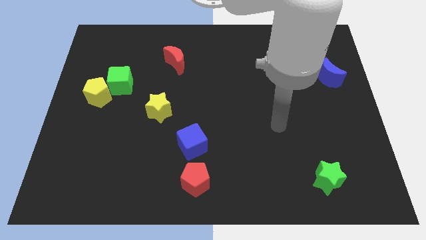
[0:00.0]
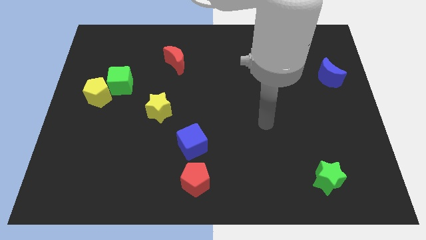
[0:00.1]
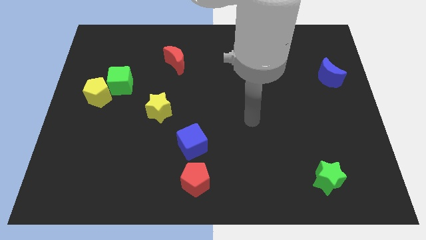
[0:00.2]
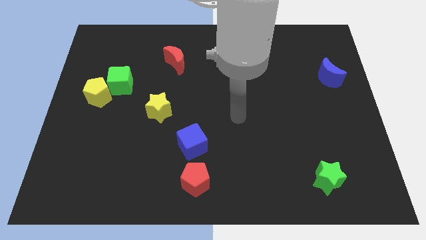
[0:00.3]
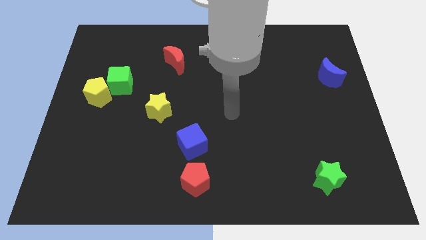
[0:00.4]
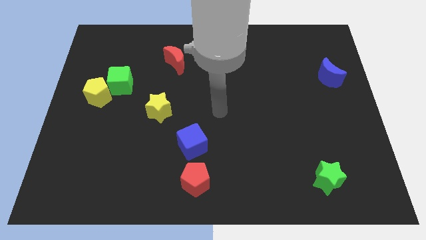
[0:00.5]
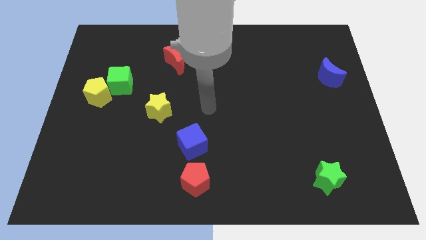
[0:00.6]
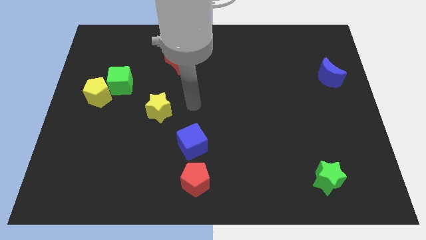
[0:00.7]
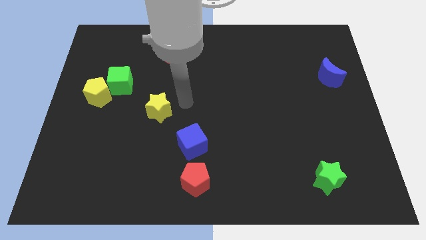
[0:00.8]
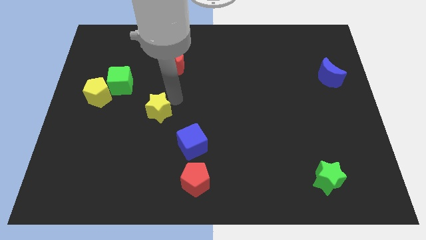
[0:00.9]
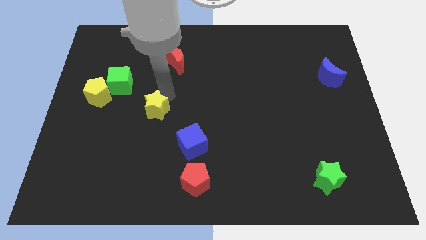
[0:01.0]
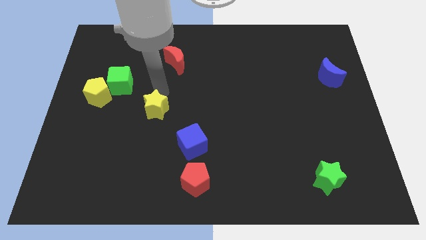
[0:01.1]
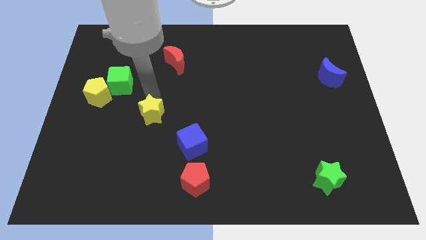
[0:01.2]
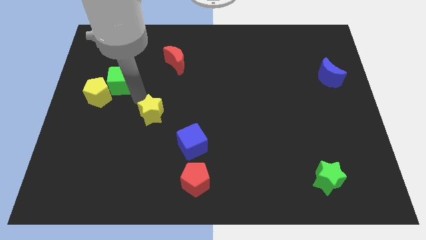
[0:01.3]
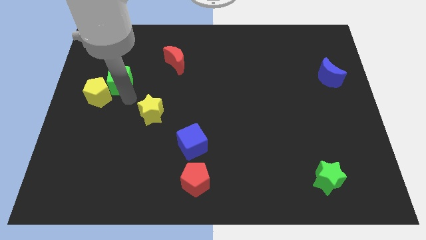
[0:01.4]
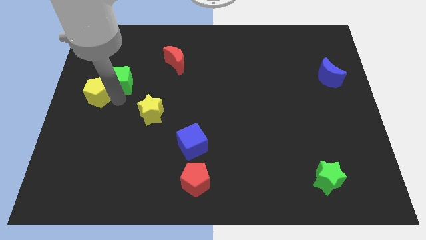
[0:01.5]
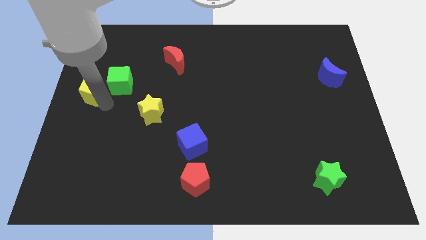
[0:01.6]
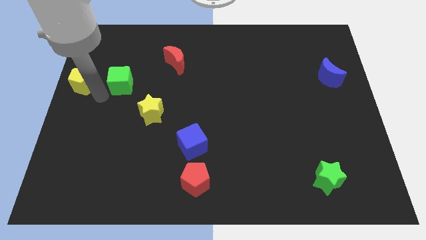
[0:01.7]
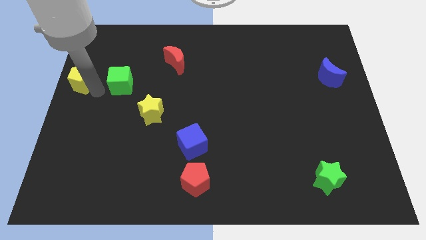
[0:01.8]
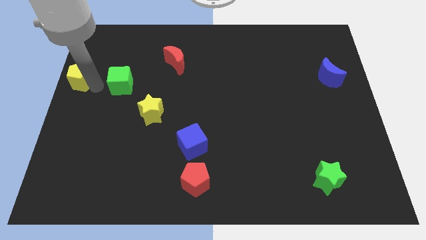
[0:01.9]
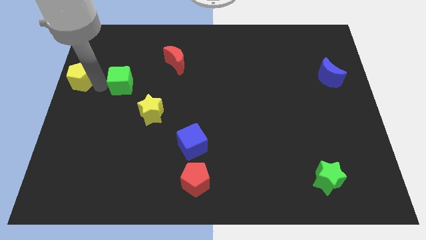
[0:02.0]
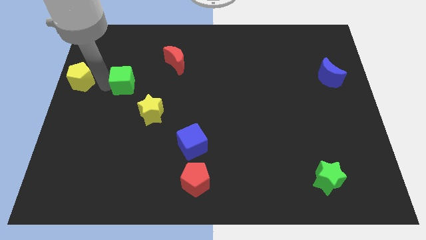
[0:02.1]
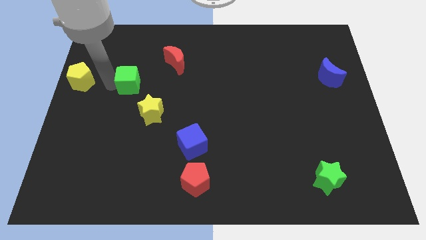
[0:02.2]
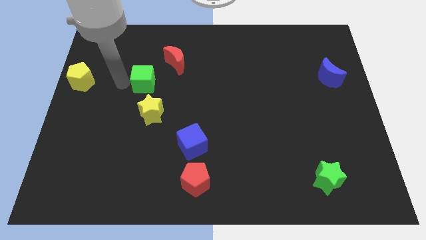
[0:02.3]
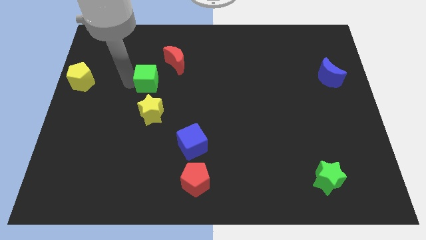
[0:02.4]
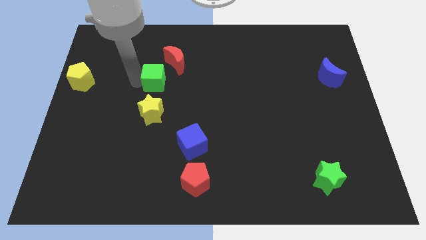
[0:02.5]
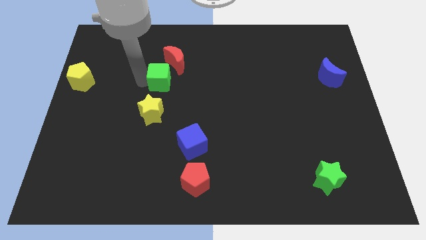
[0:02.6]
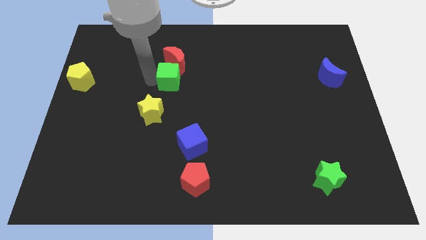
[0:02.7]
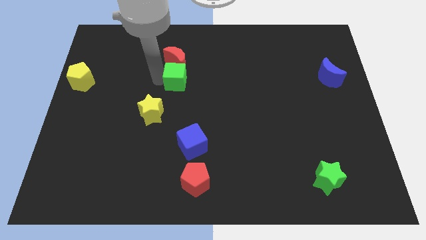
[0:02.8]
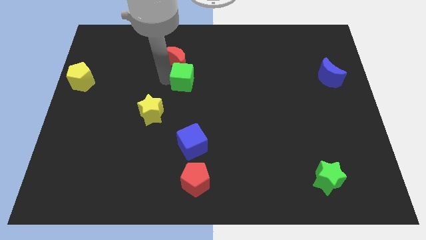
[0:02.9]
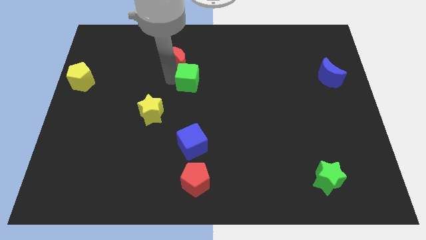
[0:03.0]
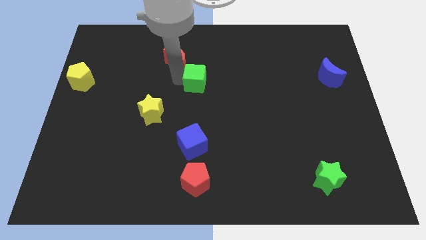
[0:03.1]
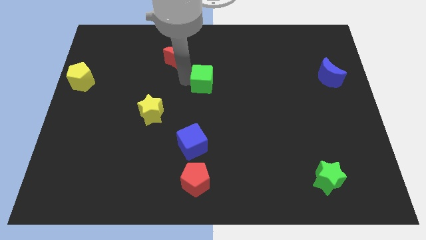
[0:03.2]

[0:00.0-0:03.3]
push the green cube to the right

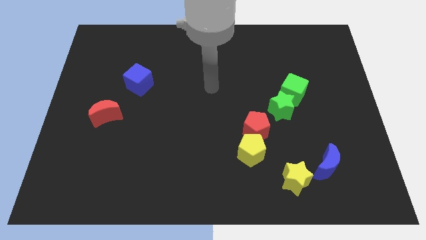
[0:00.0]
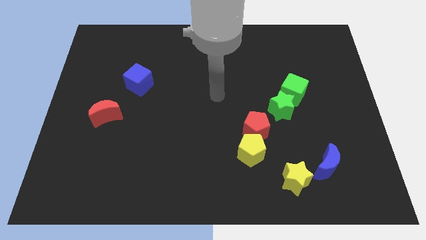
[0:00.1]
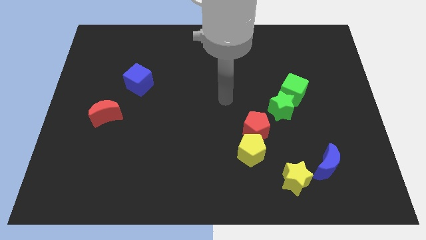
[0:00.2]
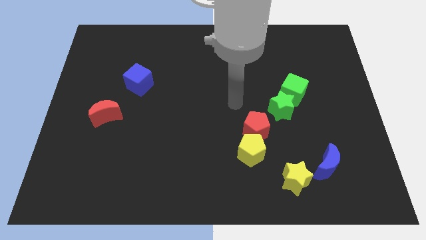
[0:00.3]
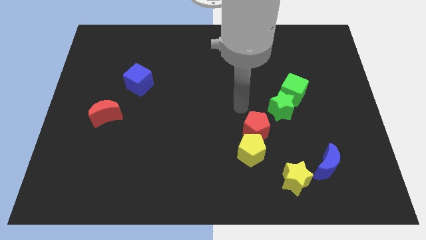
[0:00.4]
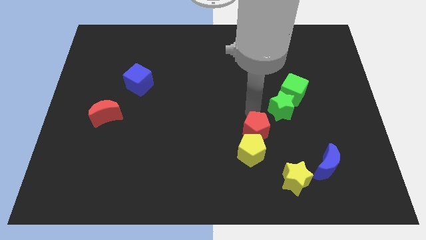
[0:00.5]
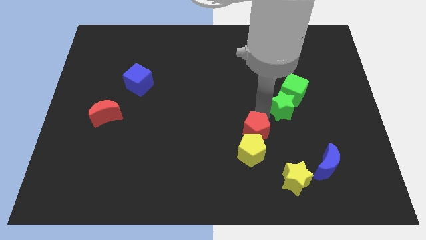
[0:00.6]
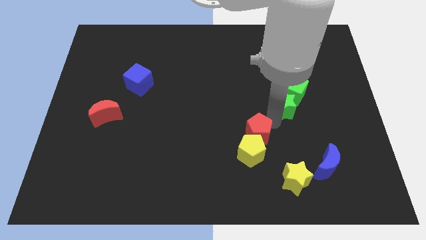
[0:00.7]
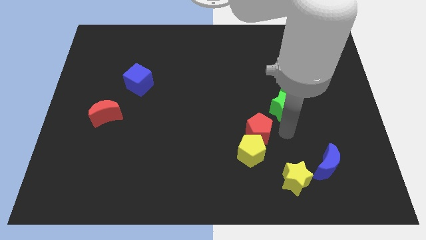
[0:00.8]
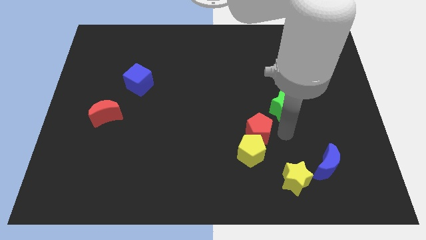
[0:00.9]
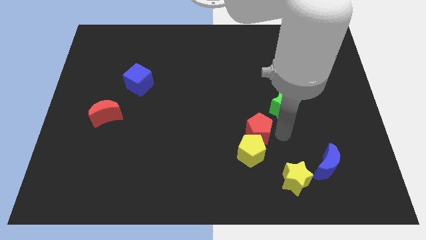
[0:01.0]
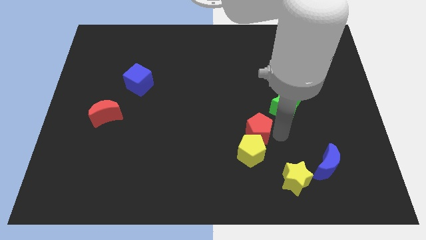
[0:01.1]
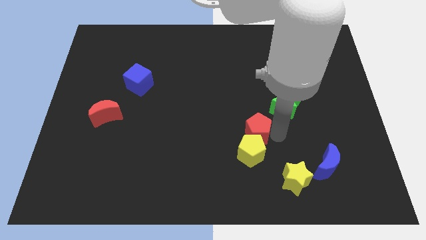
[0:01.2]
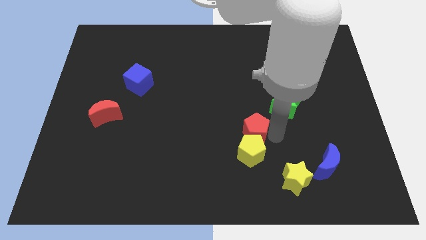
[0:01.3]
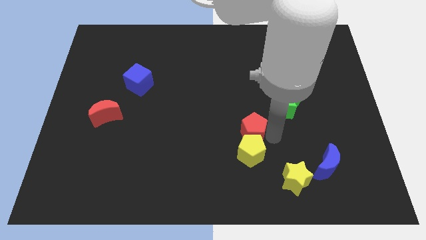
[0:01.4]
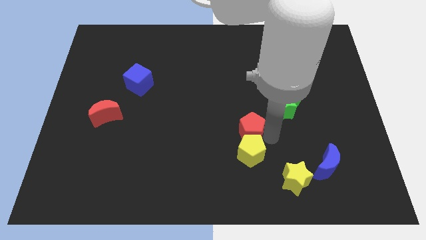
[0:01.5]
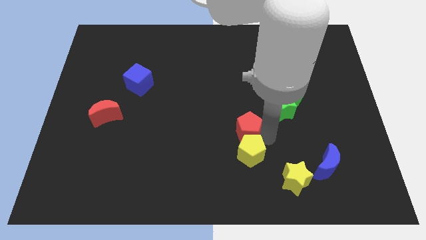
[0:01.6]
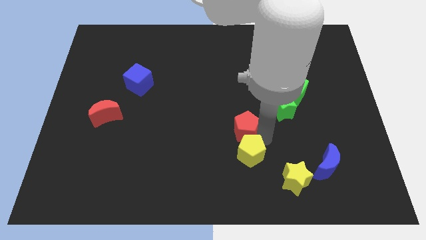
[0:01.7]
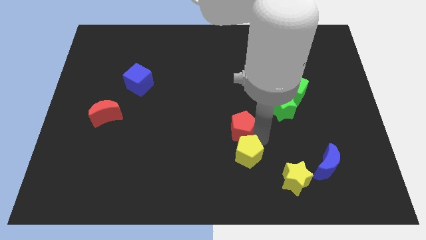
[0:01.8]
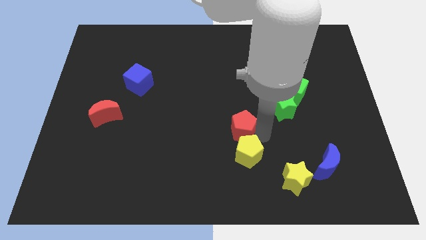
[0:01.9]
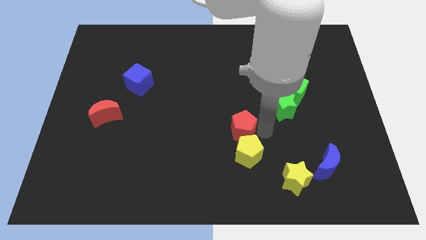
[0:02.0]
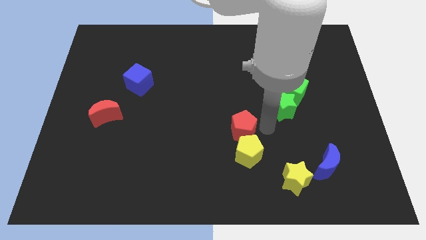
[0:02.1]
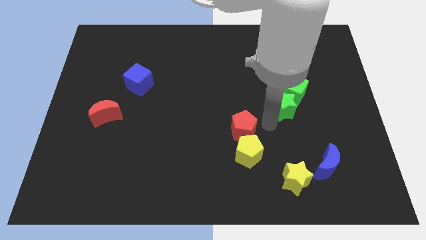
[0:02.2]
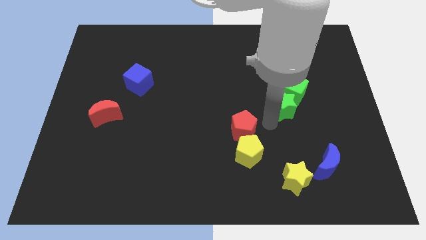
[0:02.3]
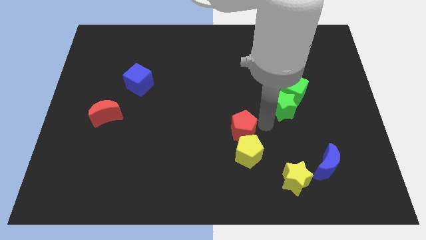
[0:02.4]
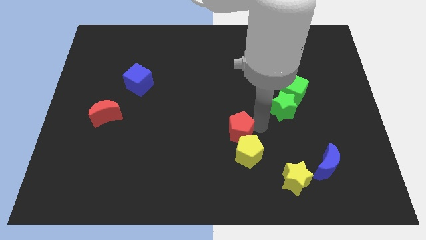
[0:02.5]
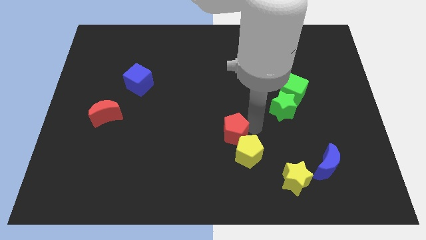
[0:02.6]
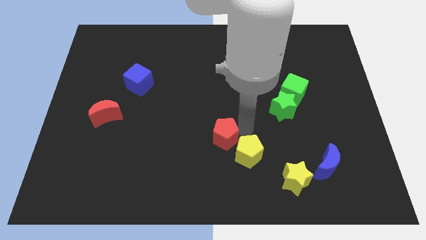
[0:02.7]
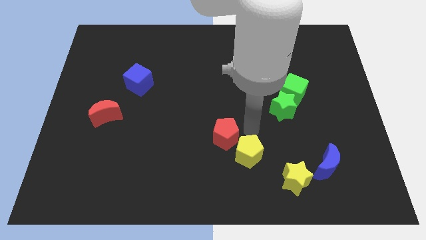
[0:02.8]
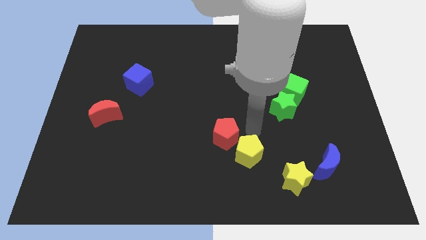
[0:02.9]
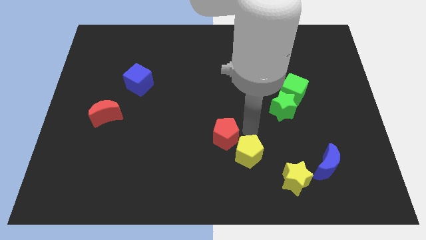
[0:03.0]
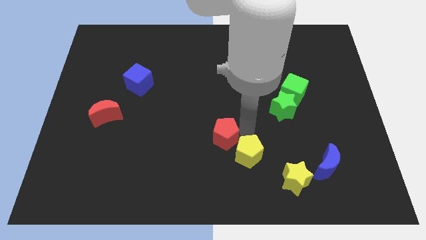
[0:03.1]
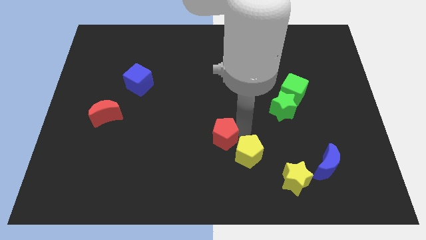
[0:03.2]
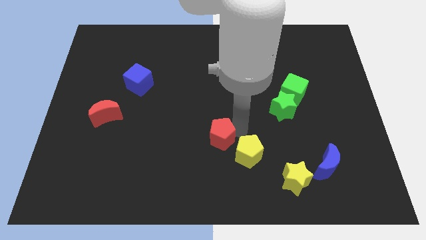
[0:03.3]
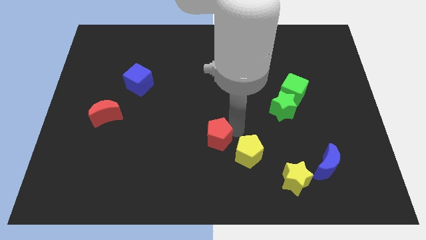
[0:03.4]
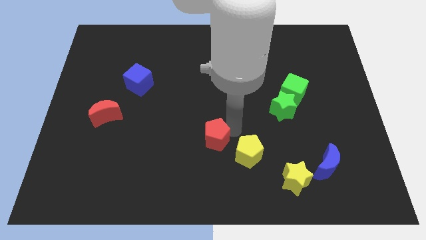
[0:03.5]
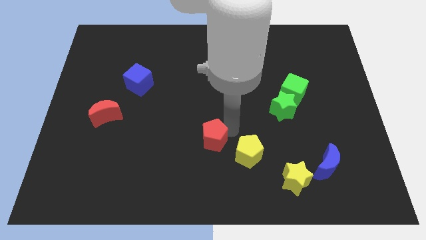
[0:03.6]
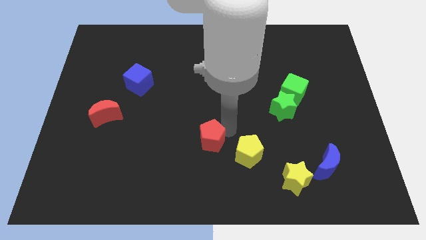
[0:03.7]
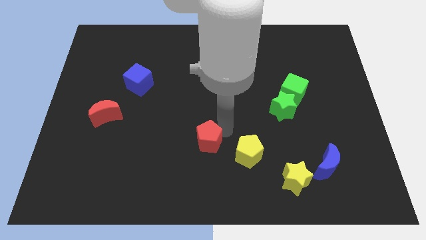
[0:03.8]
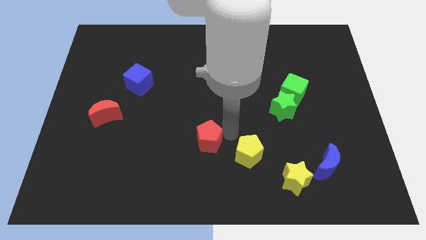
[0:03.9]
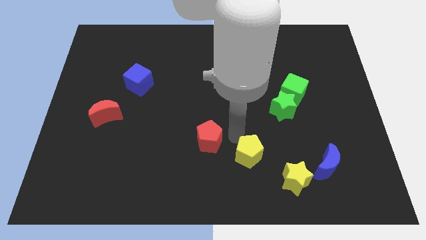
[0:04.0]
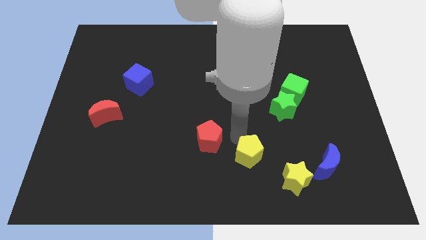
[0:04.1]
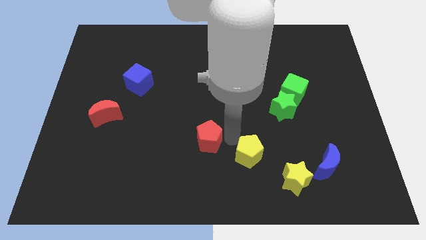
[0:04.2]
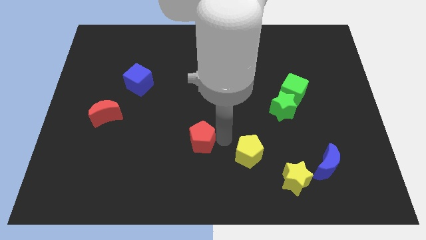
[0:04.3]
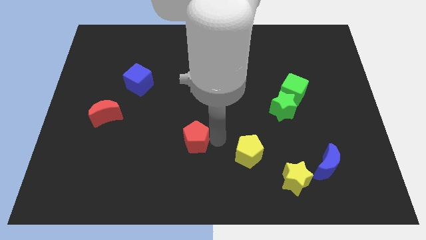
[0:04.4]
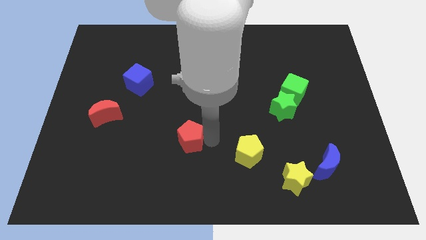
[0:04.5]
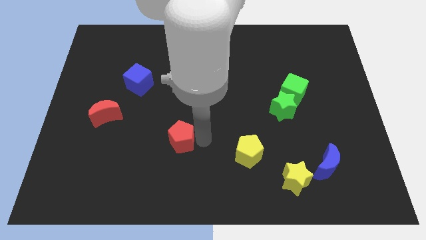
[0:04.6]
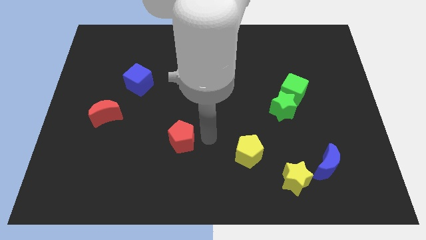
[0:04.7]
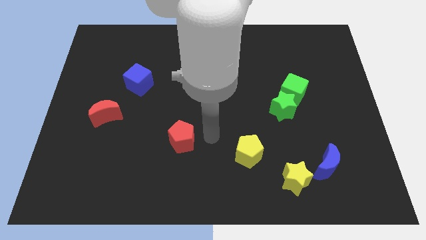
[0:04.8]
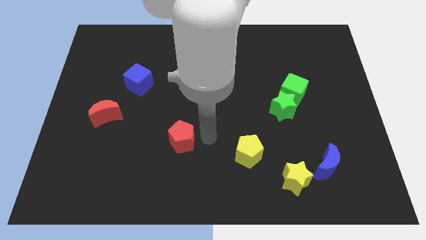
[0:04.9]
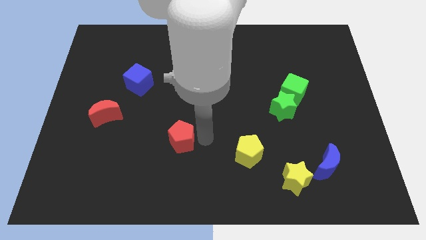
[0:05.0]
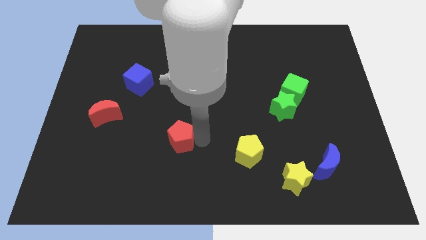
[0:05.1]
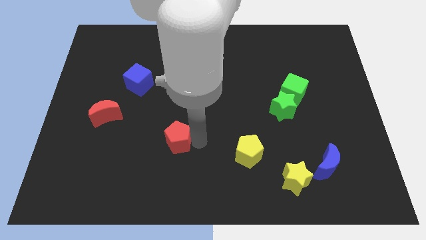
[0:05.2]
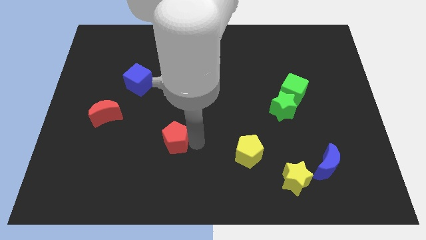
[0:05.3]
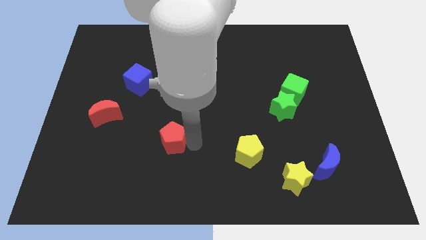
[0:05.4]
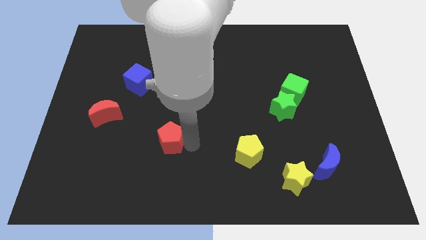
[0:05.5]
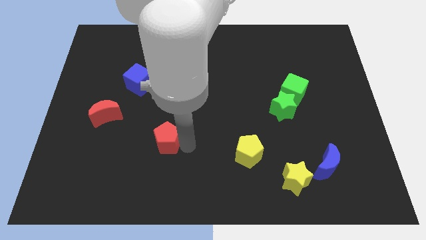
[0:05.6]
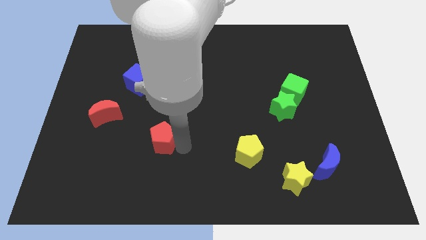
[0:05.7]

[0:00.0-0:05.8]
move the red pentagon left
